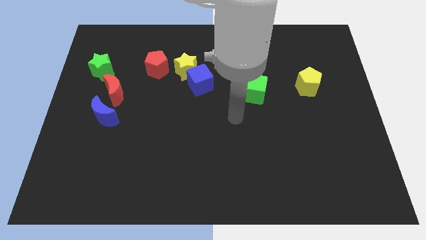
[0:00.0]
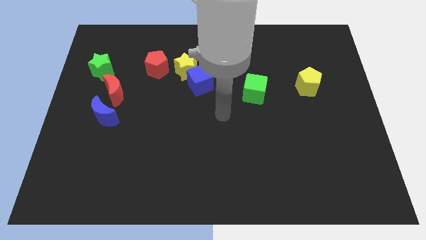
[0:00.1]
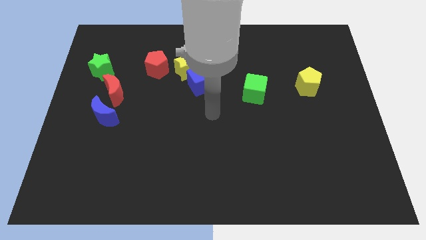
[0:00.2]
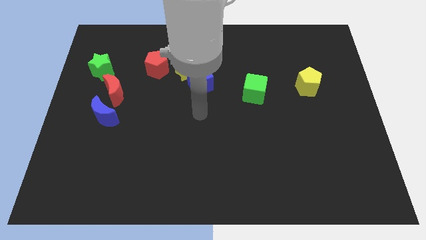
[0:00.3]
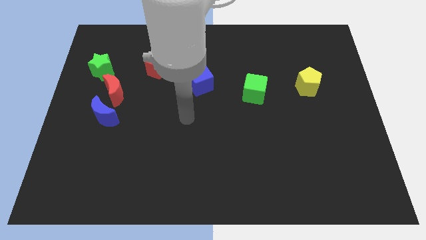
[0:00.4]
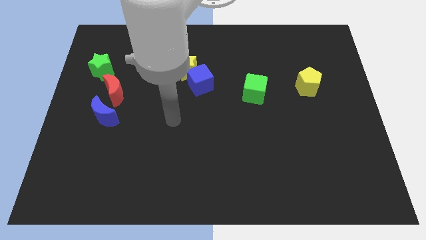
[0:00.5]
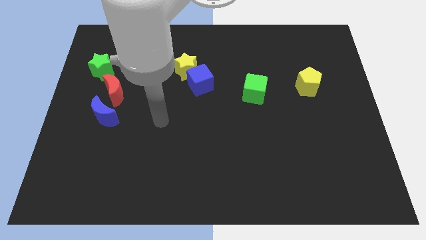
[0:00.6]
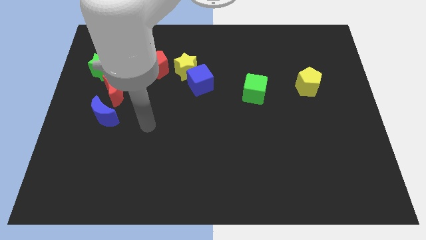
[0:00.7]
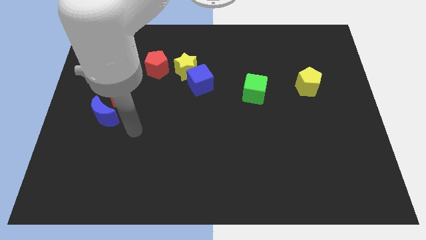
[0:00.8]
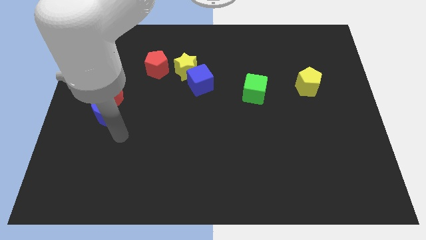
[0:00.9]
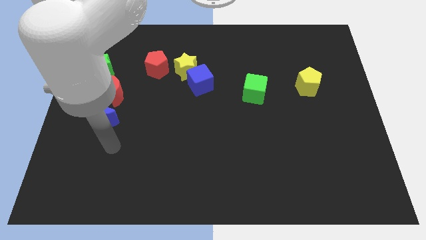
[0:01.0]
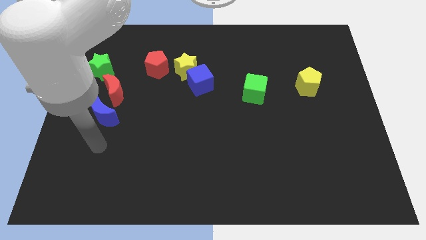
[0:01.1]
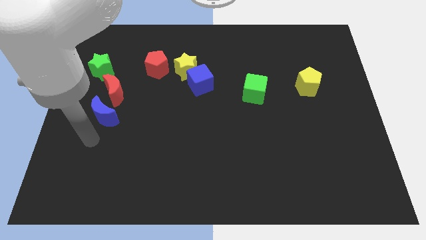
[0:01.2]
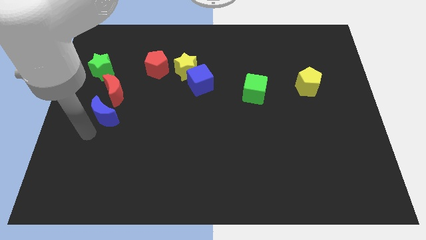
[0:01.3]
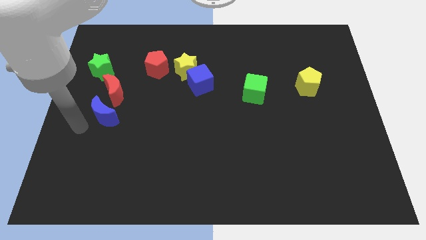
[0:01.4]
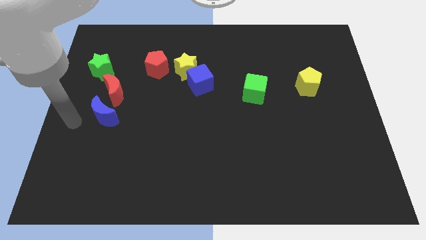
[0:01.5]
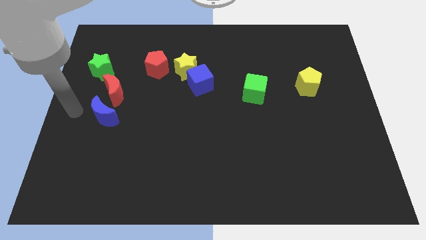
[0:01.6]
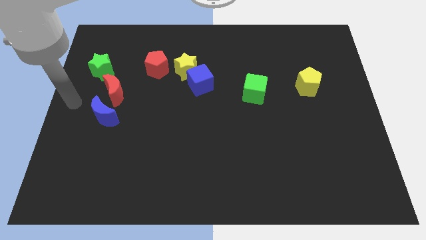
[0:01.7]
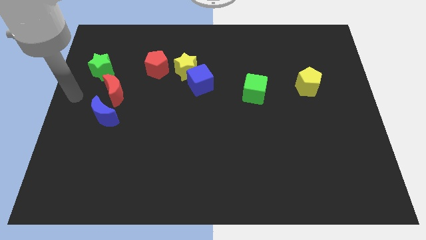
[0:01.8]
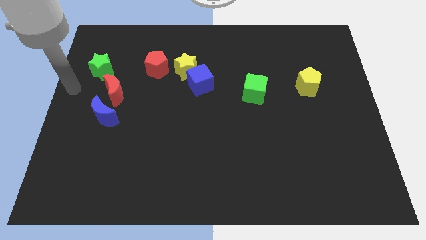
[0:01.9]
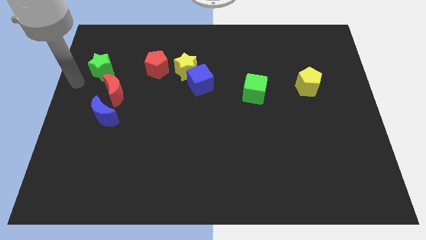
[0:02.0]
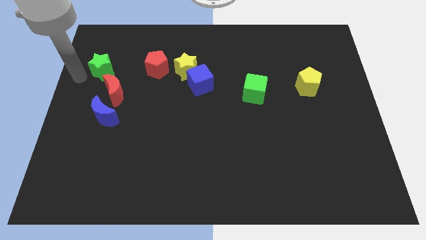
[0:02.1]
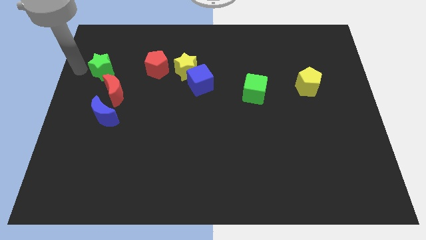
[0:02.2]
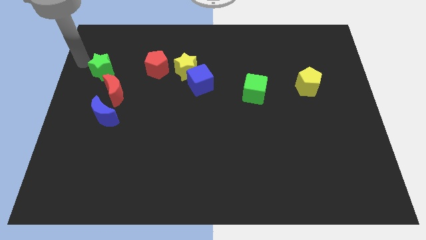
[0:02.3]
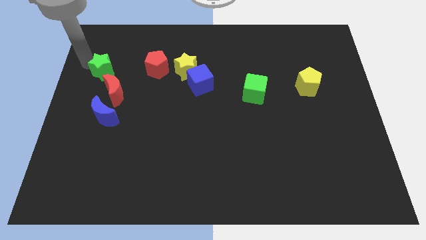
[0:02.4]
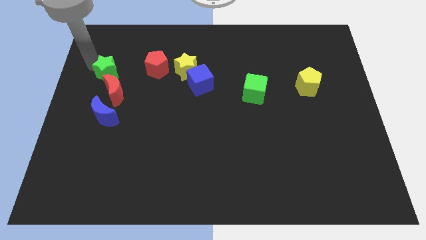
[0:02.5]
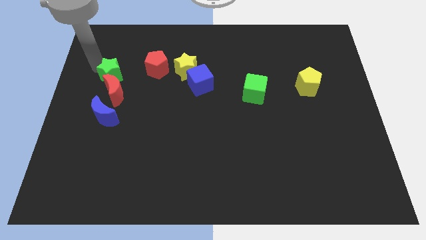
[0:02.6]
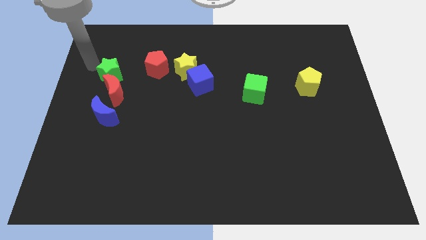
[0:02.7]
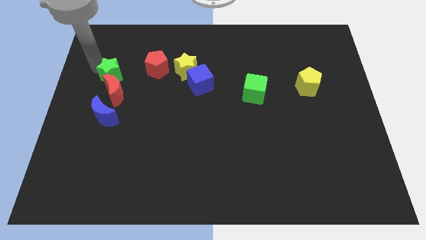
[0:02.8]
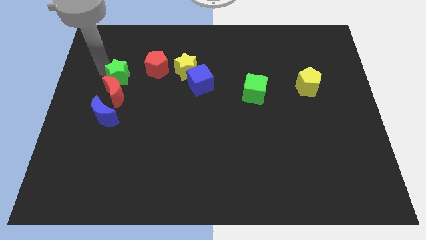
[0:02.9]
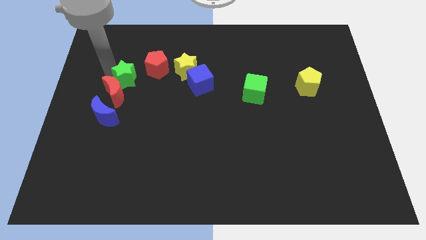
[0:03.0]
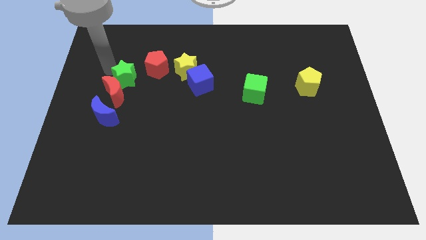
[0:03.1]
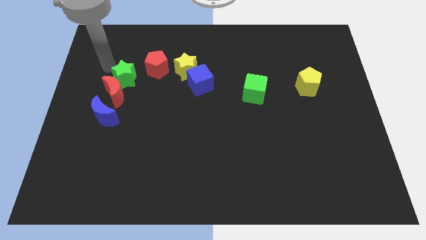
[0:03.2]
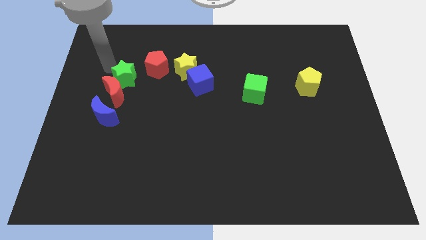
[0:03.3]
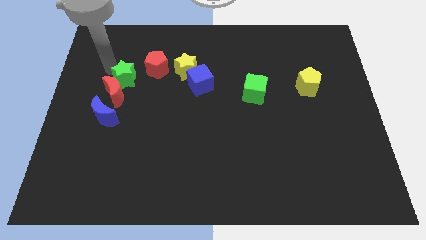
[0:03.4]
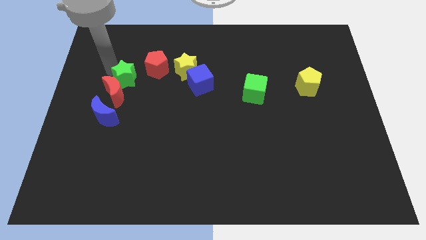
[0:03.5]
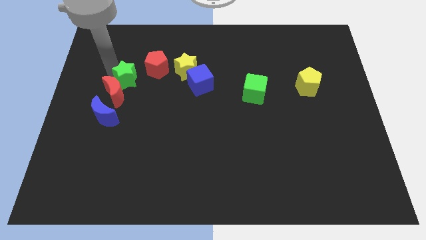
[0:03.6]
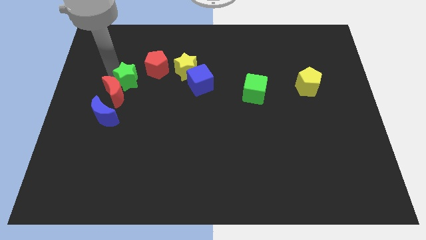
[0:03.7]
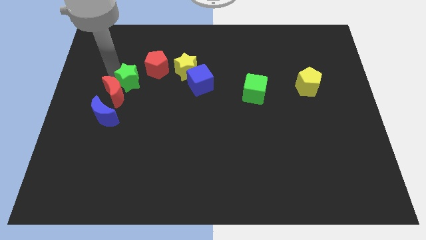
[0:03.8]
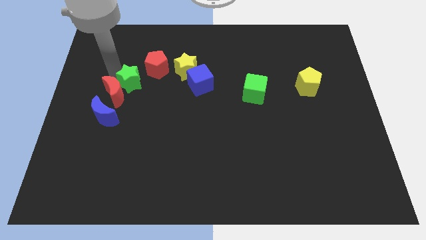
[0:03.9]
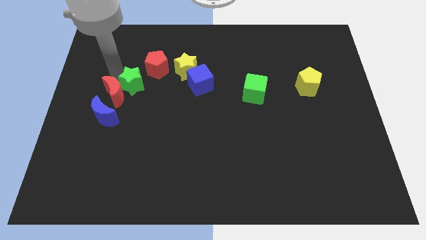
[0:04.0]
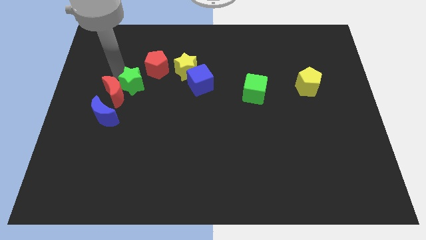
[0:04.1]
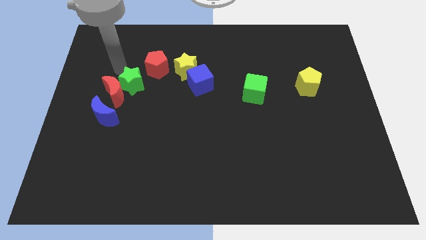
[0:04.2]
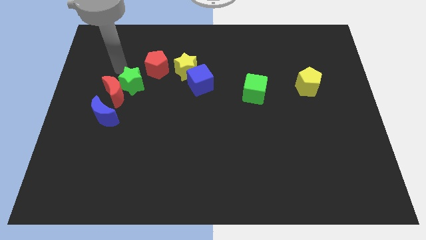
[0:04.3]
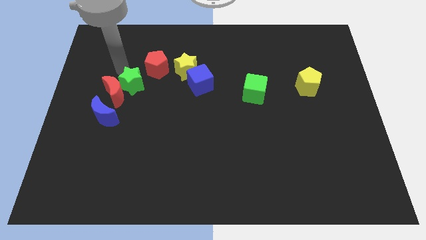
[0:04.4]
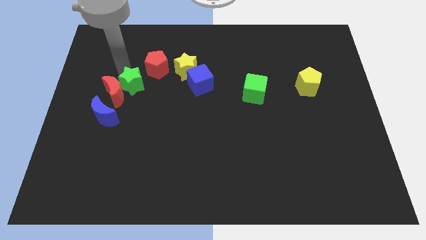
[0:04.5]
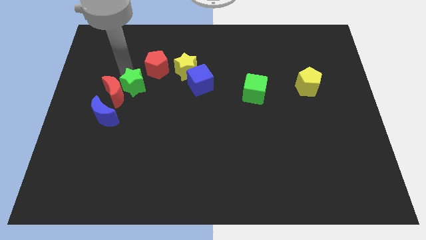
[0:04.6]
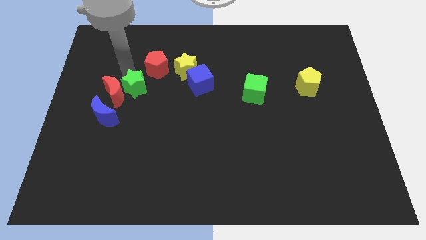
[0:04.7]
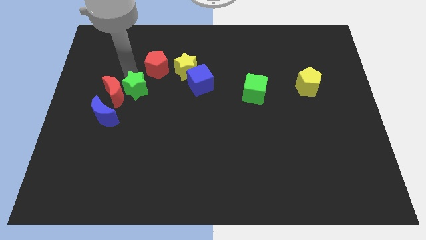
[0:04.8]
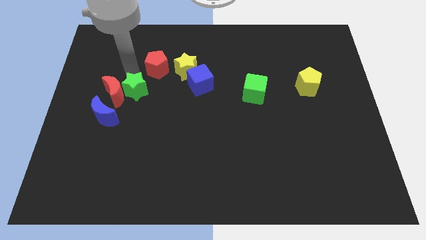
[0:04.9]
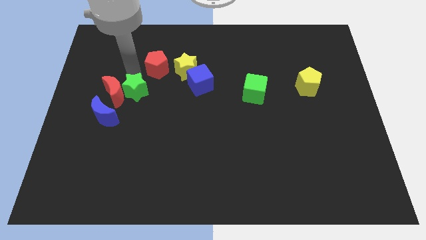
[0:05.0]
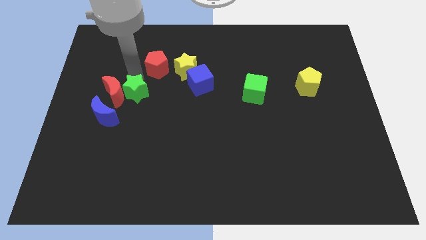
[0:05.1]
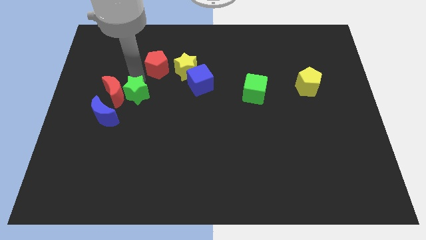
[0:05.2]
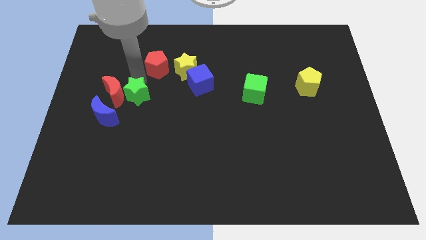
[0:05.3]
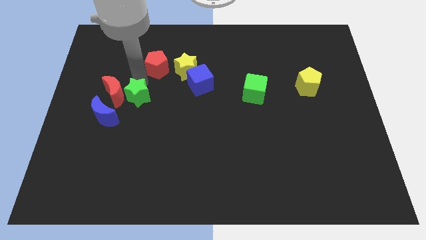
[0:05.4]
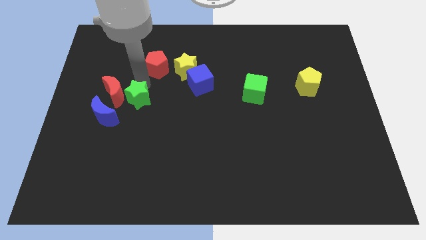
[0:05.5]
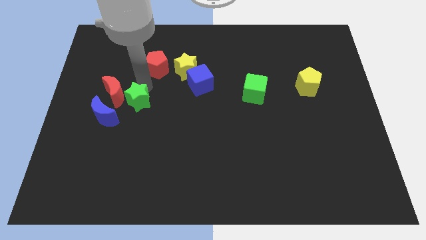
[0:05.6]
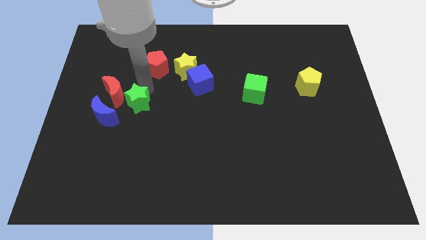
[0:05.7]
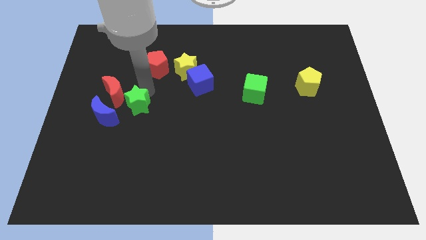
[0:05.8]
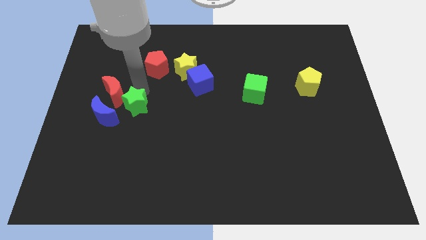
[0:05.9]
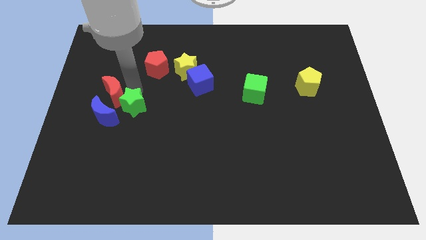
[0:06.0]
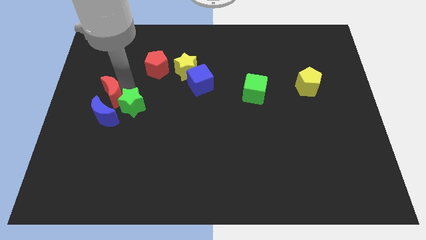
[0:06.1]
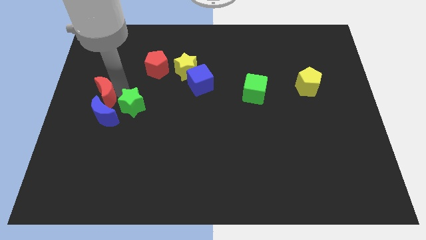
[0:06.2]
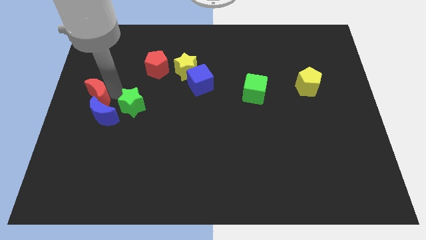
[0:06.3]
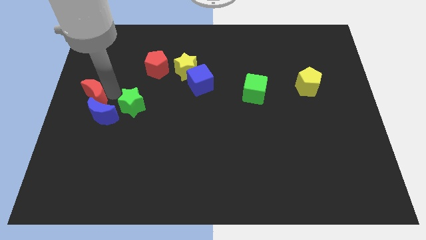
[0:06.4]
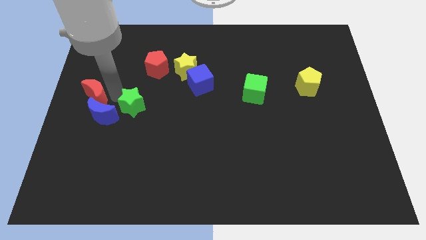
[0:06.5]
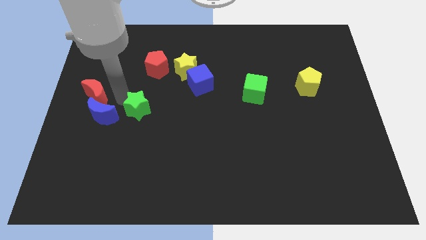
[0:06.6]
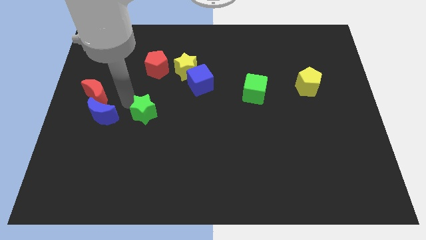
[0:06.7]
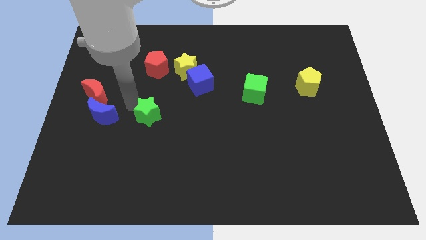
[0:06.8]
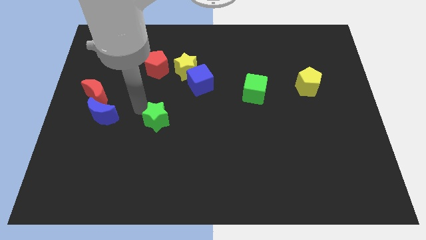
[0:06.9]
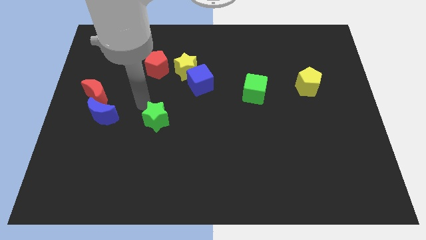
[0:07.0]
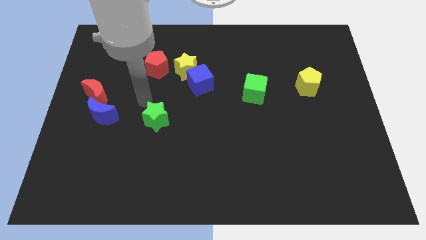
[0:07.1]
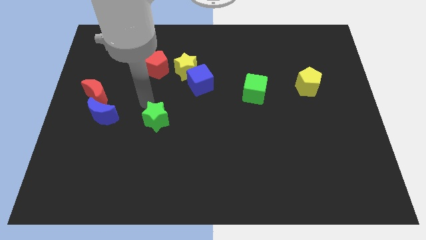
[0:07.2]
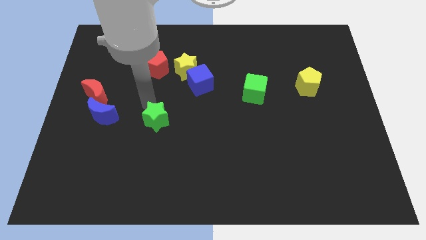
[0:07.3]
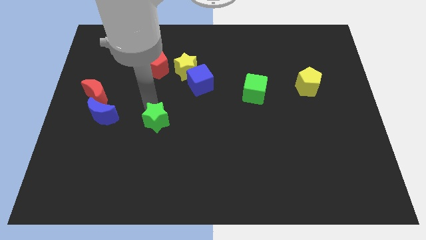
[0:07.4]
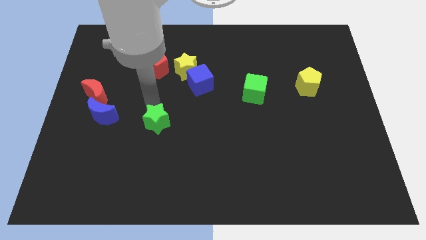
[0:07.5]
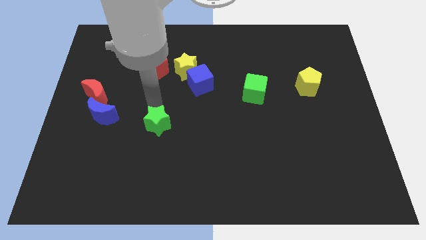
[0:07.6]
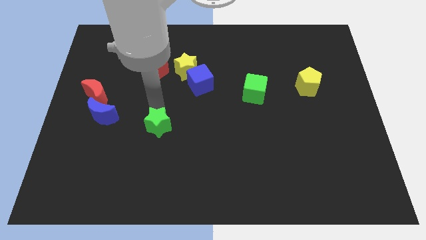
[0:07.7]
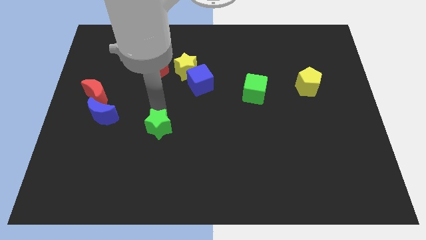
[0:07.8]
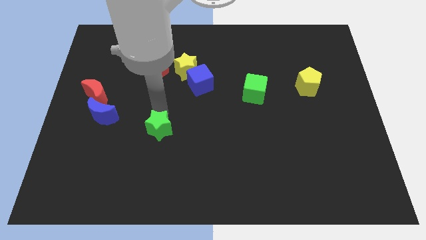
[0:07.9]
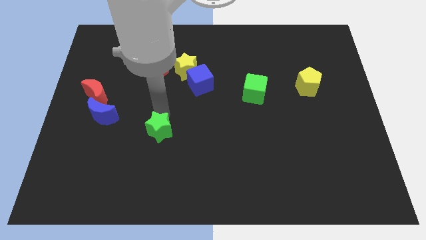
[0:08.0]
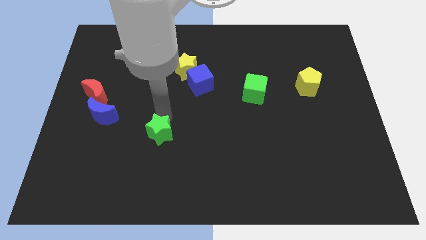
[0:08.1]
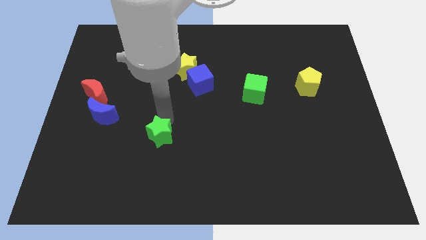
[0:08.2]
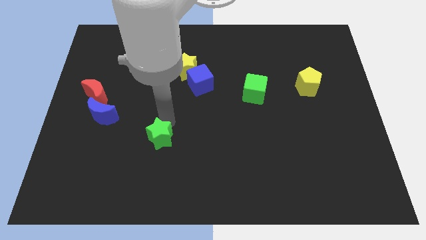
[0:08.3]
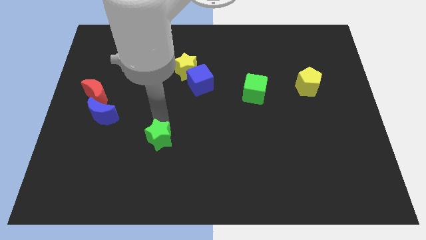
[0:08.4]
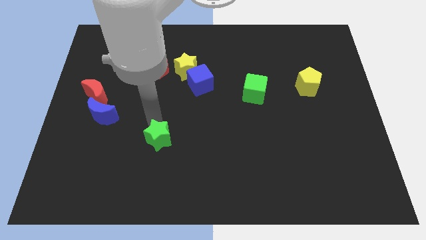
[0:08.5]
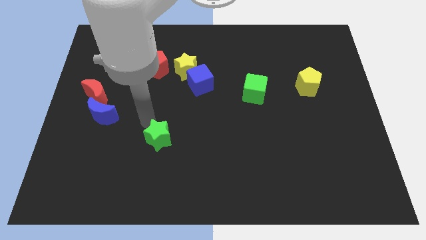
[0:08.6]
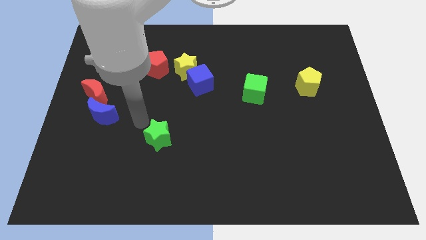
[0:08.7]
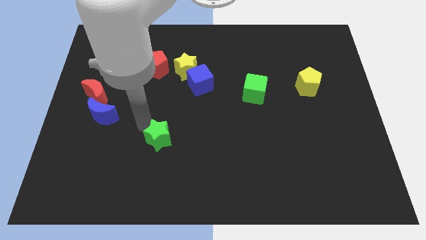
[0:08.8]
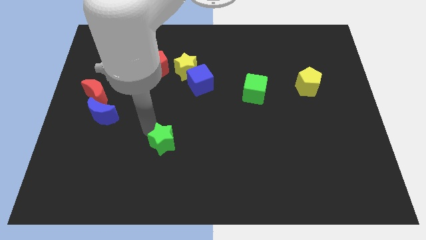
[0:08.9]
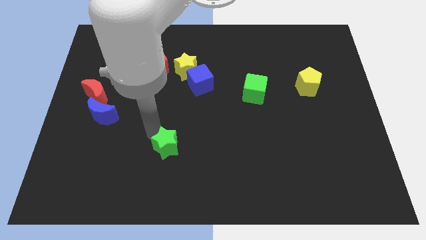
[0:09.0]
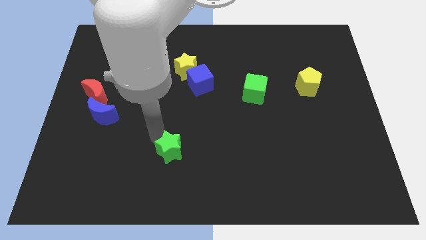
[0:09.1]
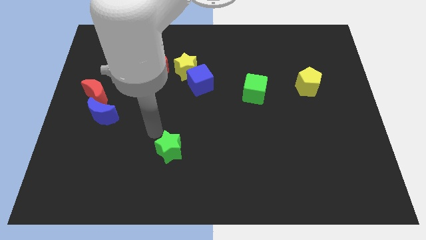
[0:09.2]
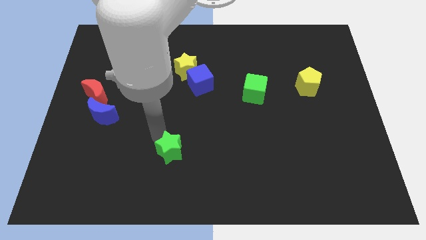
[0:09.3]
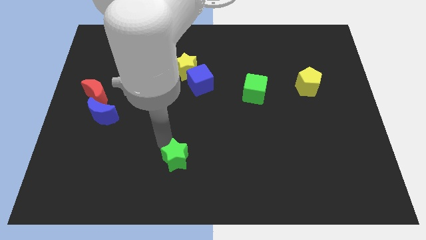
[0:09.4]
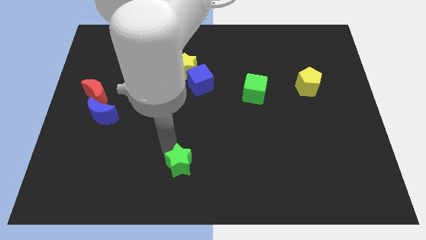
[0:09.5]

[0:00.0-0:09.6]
slide the green star to the bottom side
